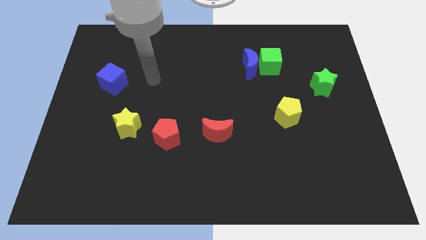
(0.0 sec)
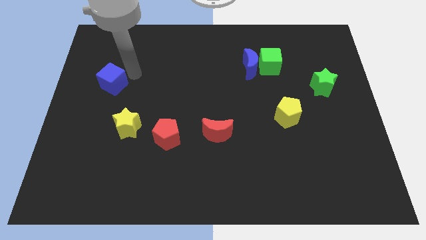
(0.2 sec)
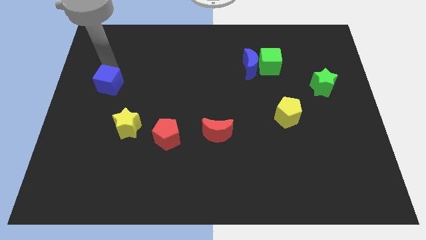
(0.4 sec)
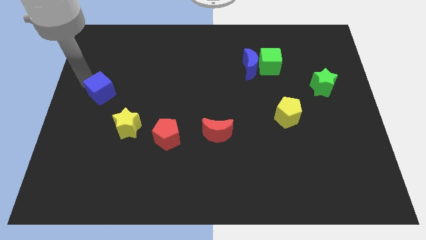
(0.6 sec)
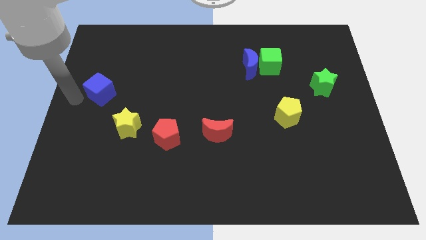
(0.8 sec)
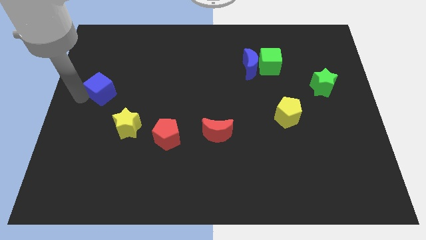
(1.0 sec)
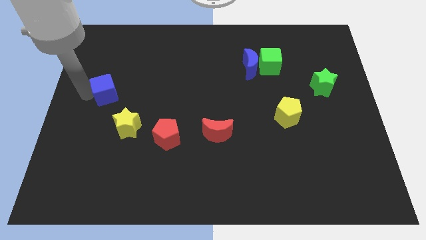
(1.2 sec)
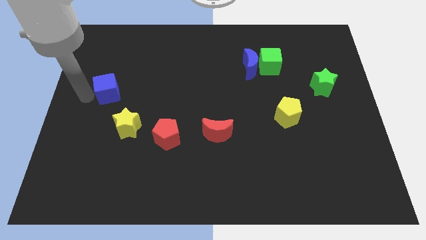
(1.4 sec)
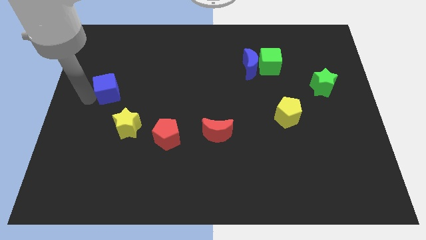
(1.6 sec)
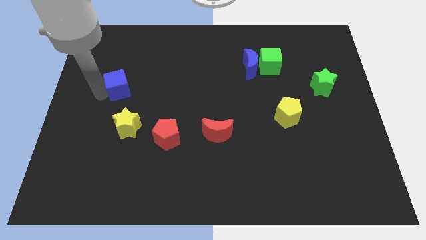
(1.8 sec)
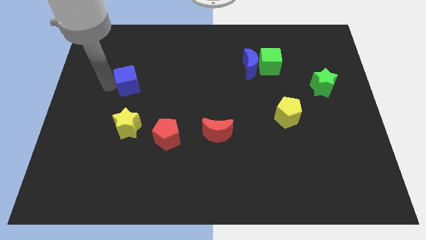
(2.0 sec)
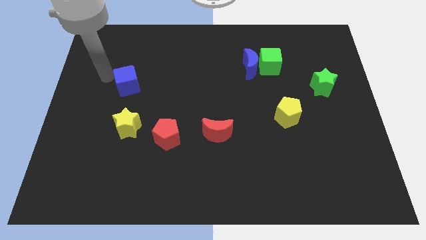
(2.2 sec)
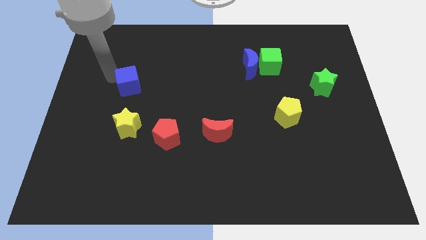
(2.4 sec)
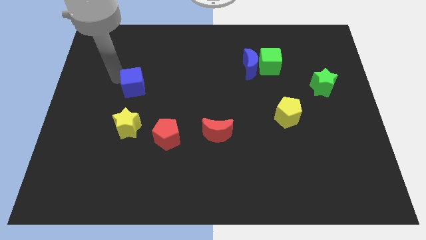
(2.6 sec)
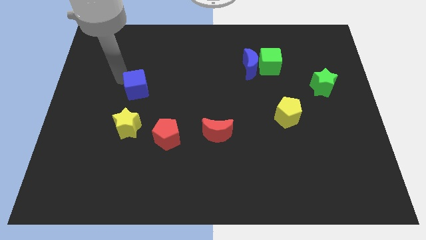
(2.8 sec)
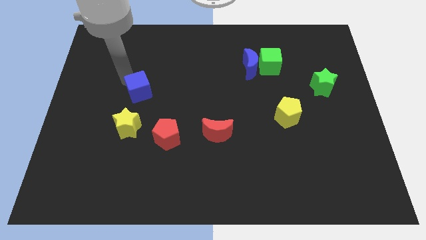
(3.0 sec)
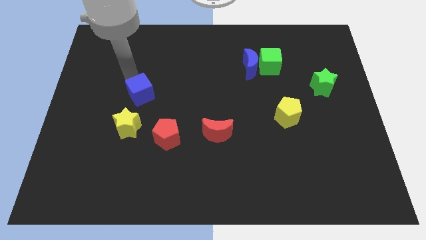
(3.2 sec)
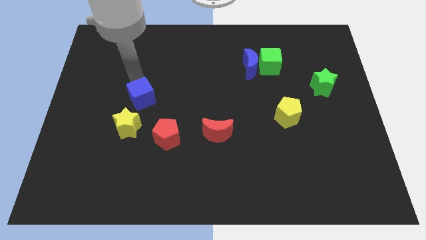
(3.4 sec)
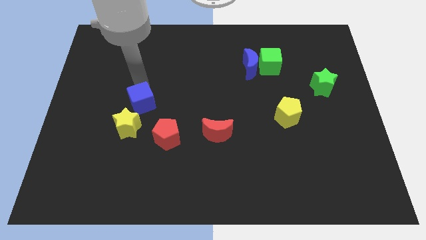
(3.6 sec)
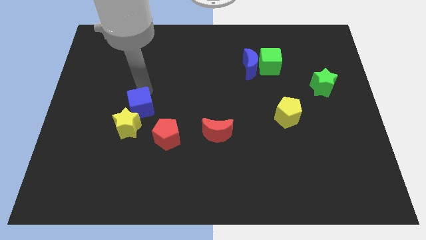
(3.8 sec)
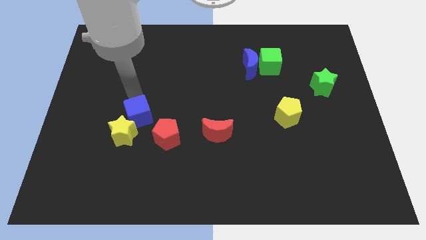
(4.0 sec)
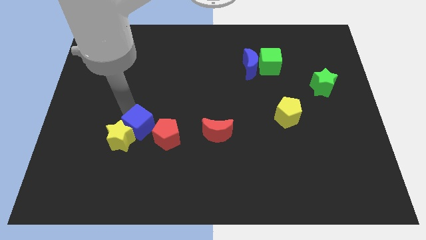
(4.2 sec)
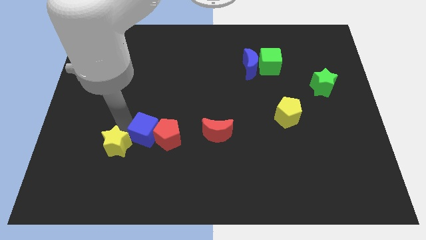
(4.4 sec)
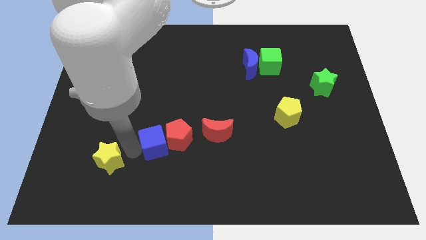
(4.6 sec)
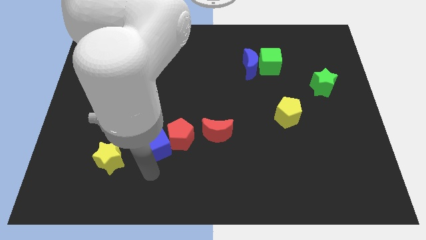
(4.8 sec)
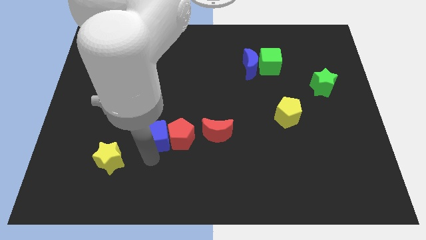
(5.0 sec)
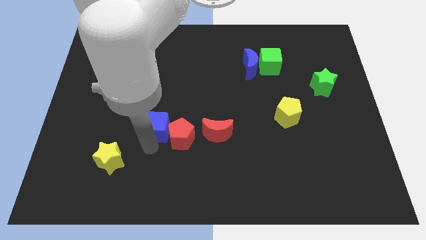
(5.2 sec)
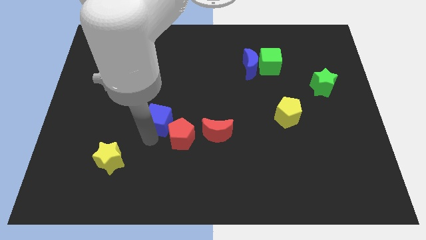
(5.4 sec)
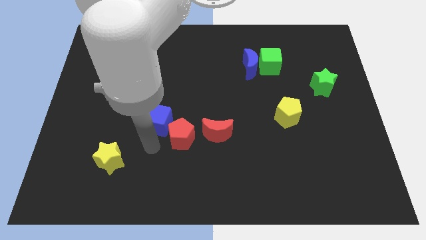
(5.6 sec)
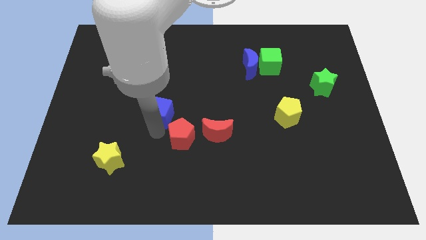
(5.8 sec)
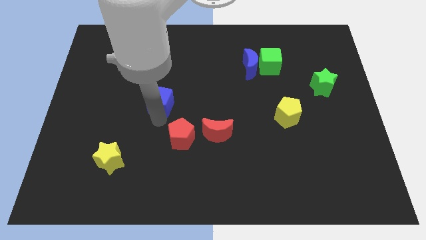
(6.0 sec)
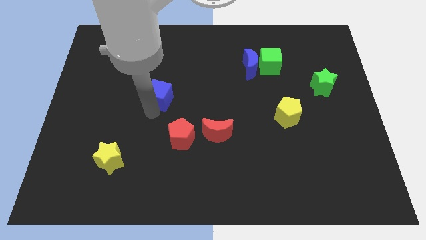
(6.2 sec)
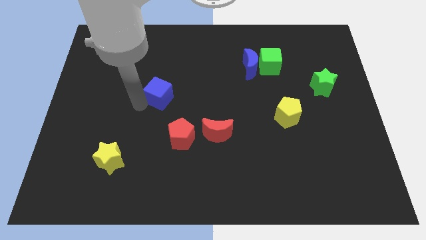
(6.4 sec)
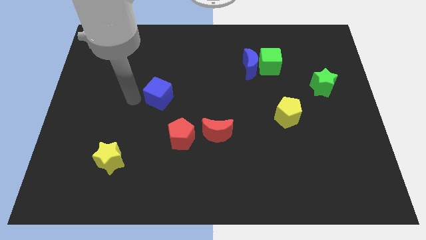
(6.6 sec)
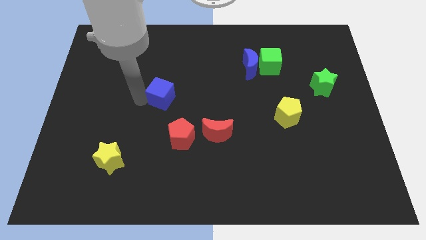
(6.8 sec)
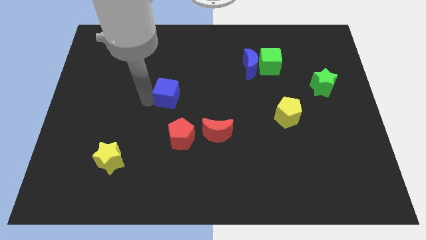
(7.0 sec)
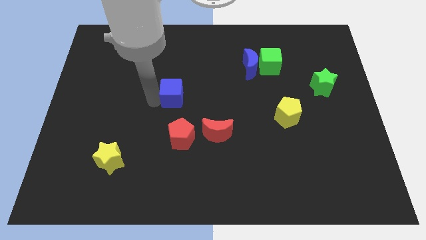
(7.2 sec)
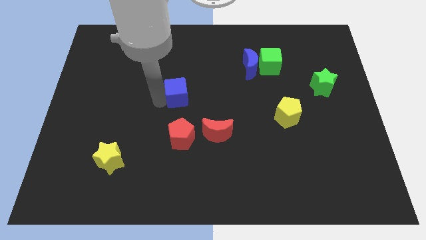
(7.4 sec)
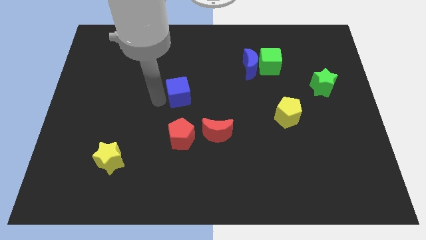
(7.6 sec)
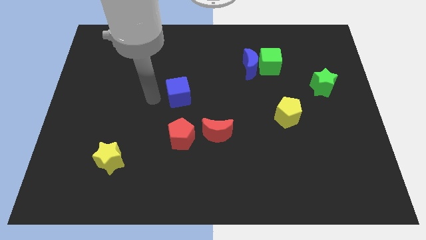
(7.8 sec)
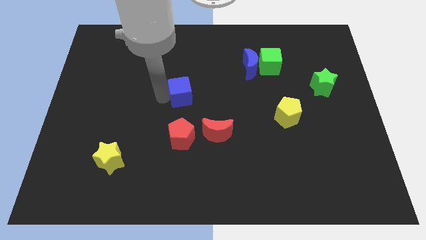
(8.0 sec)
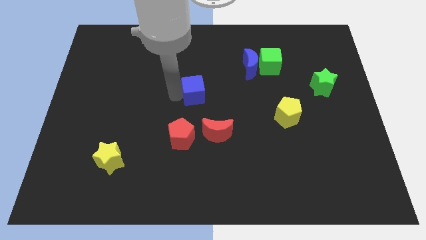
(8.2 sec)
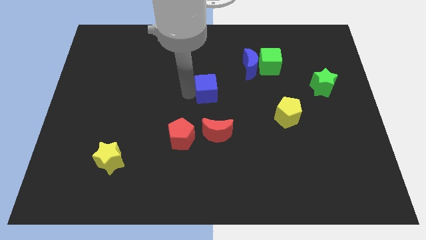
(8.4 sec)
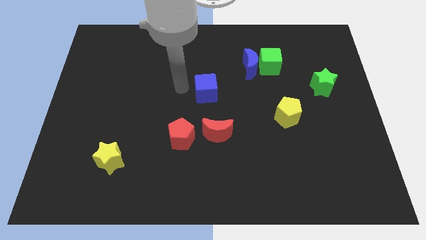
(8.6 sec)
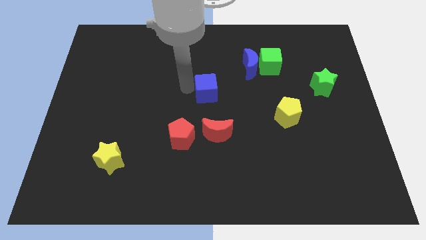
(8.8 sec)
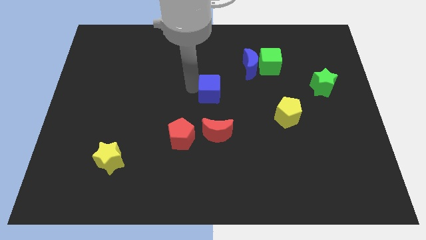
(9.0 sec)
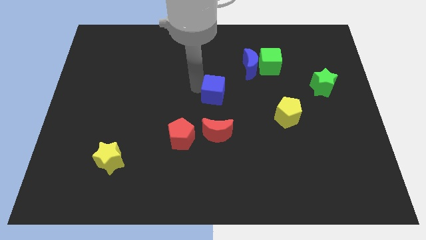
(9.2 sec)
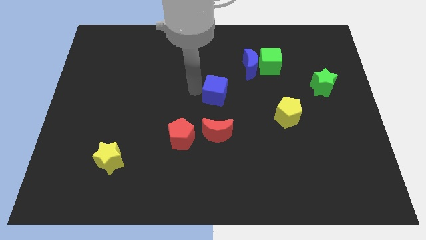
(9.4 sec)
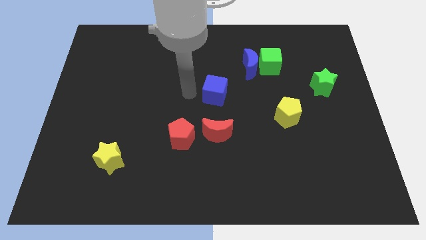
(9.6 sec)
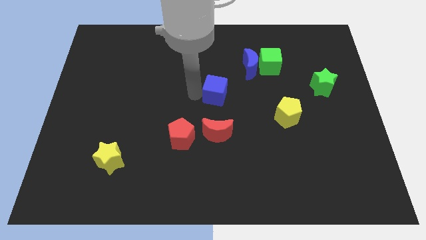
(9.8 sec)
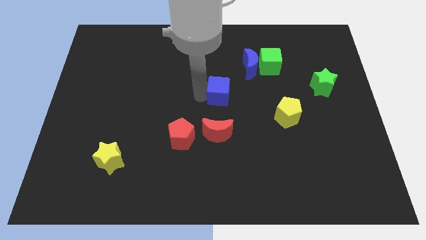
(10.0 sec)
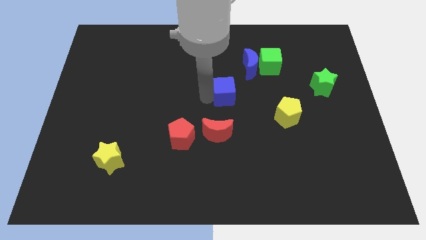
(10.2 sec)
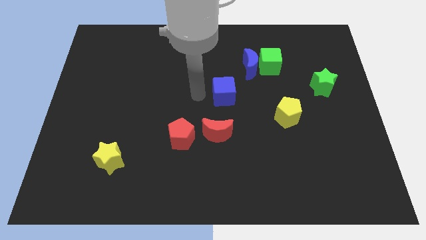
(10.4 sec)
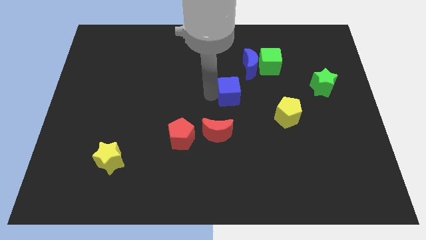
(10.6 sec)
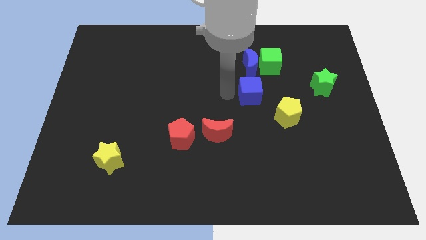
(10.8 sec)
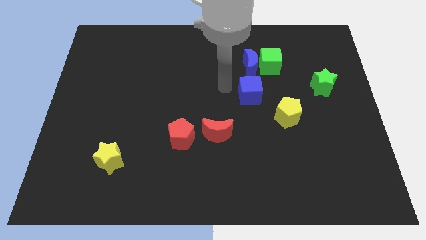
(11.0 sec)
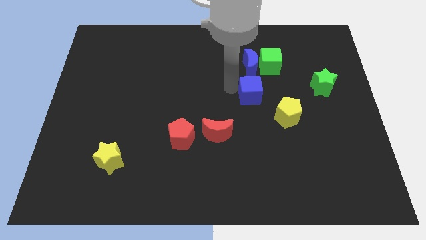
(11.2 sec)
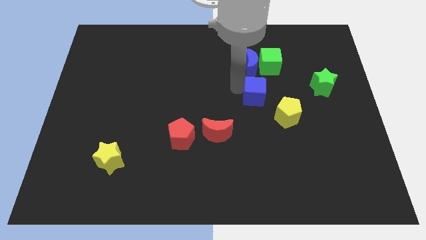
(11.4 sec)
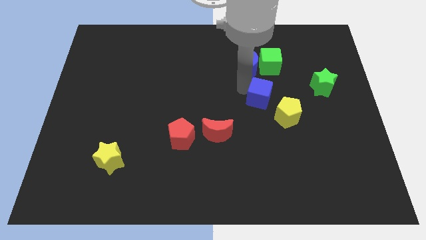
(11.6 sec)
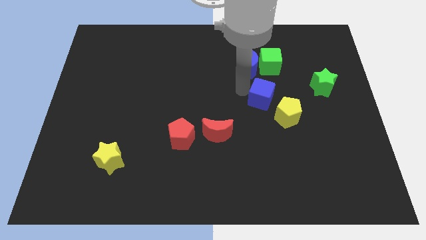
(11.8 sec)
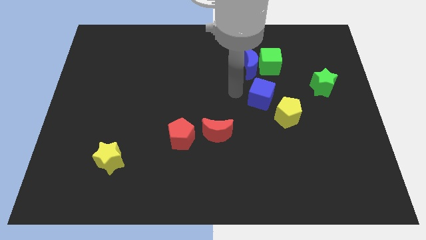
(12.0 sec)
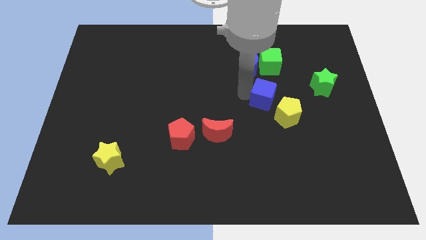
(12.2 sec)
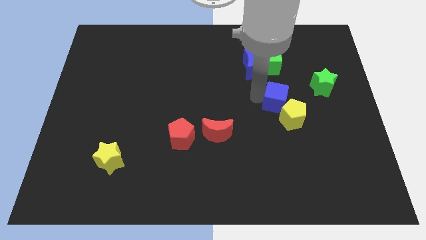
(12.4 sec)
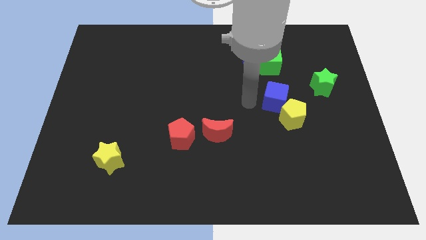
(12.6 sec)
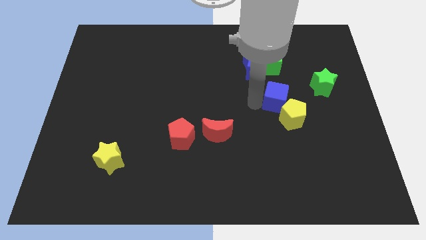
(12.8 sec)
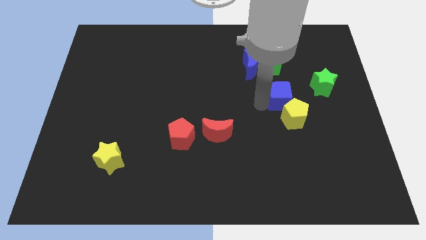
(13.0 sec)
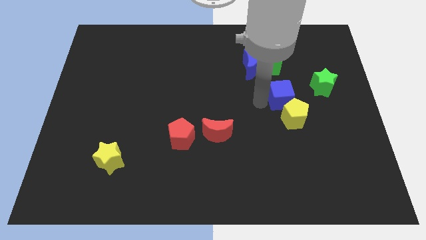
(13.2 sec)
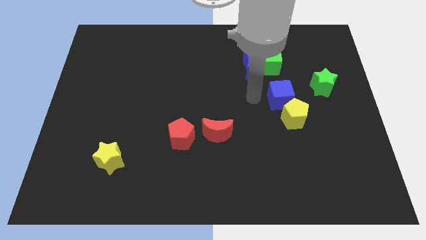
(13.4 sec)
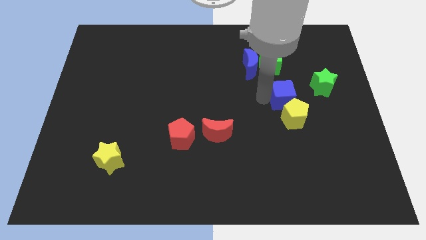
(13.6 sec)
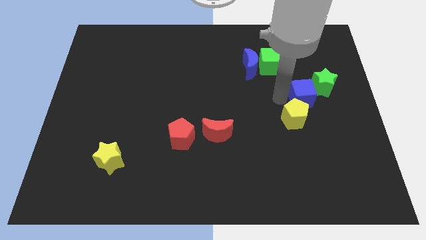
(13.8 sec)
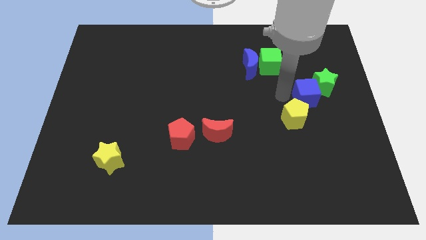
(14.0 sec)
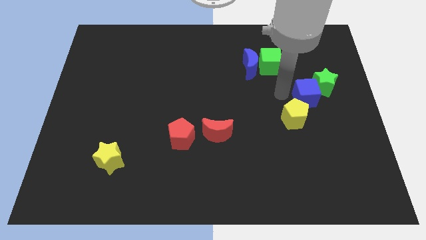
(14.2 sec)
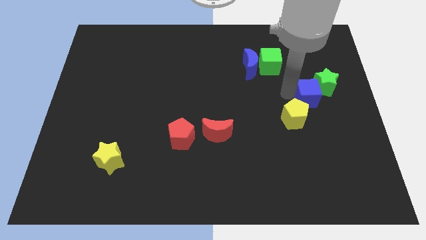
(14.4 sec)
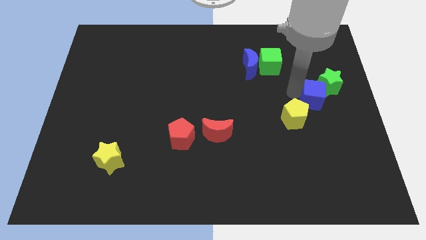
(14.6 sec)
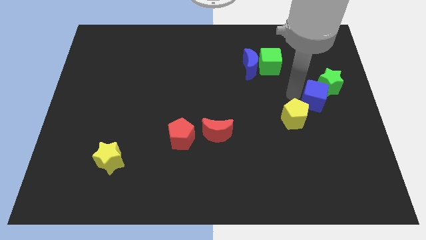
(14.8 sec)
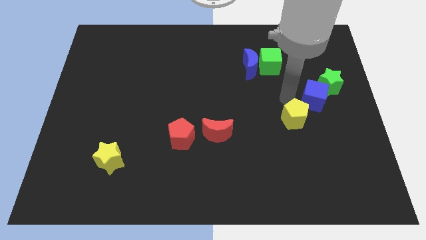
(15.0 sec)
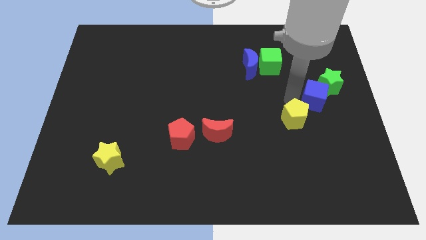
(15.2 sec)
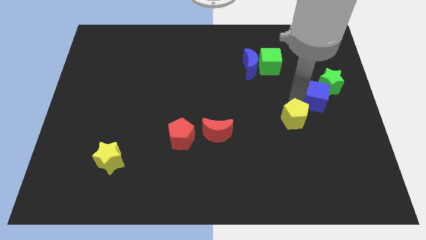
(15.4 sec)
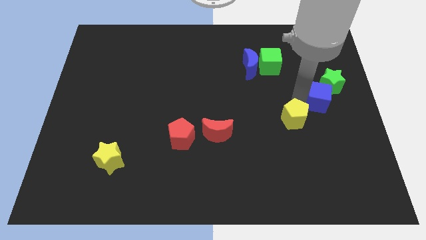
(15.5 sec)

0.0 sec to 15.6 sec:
slide the blue cube to the right side of the board

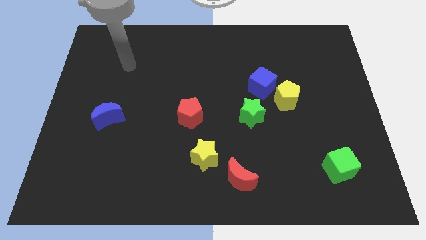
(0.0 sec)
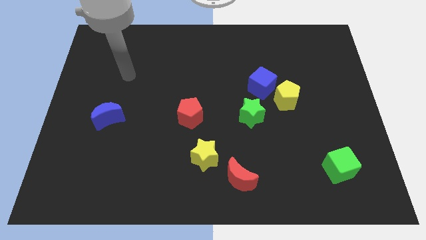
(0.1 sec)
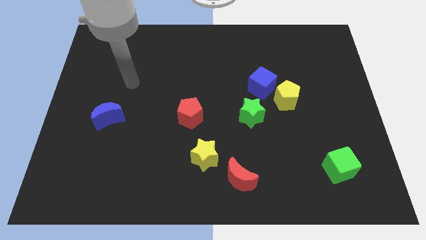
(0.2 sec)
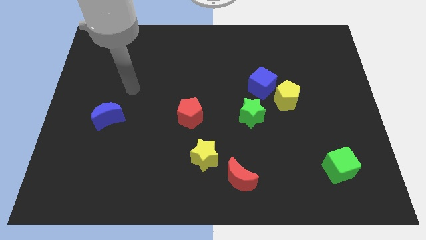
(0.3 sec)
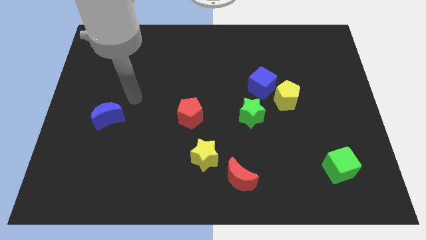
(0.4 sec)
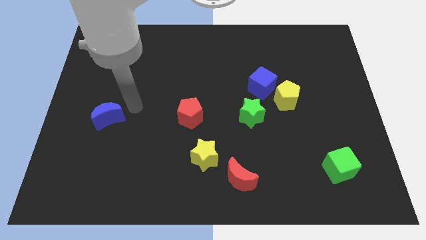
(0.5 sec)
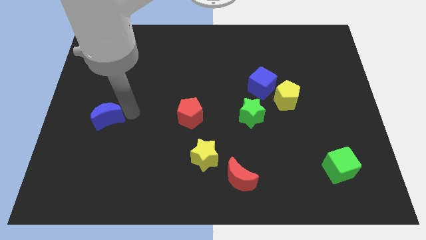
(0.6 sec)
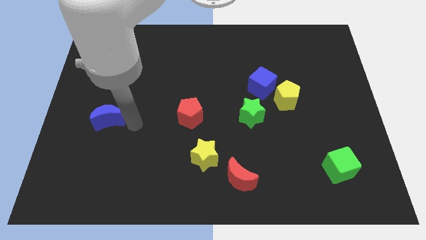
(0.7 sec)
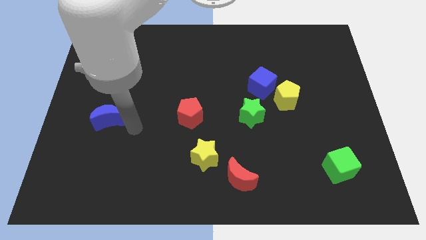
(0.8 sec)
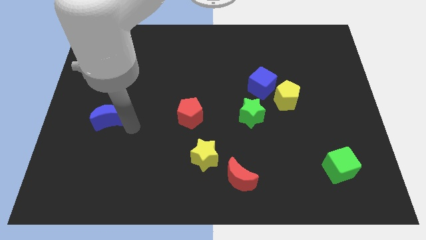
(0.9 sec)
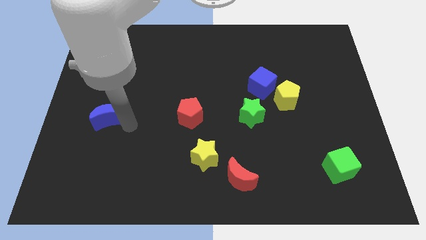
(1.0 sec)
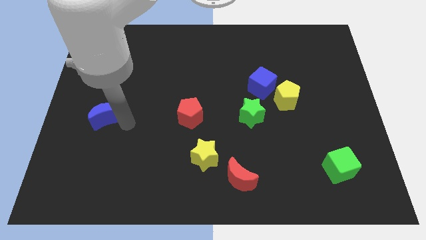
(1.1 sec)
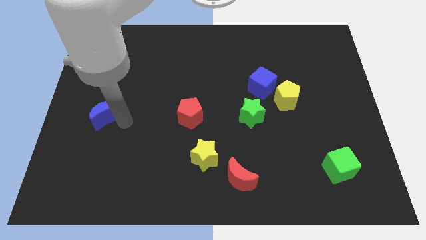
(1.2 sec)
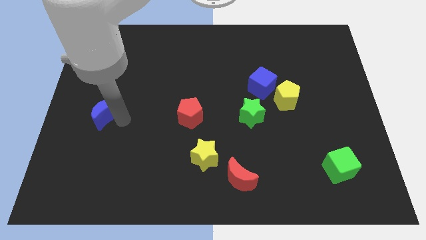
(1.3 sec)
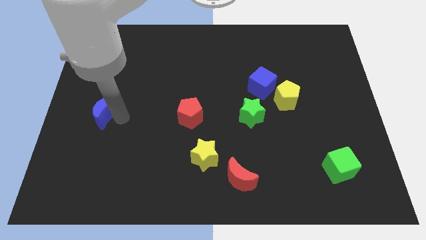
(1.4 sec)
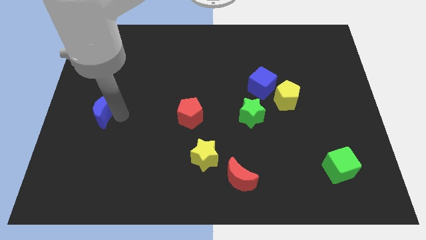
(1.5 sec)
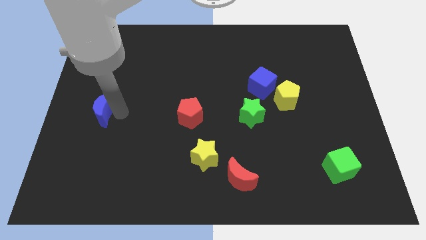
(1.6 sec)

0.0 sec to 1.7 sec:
move the blue moon to the center left
